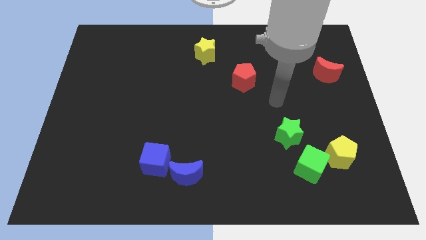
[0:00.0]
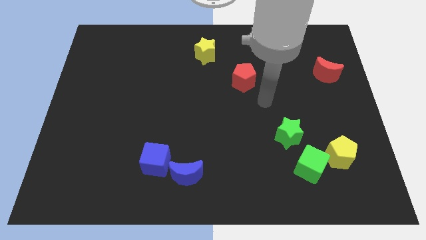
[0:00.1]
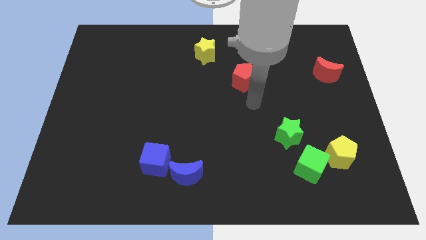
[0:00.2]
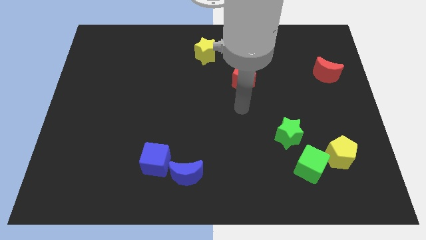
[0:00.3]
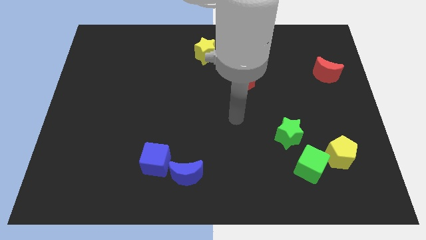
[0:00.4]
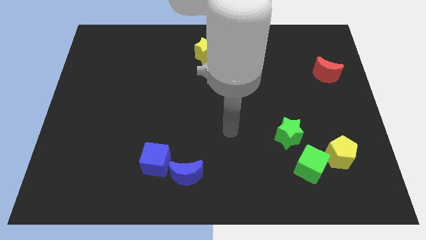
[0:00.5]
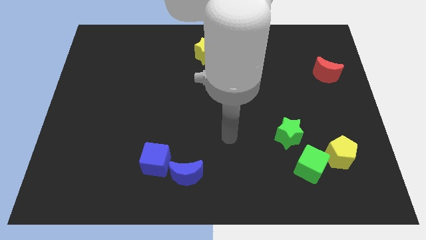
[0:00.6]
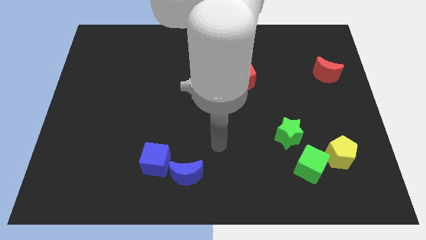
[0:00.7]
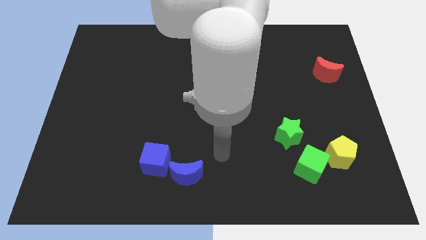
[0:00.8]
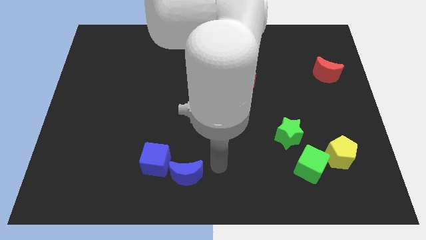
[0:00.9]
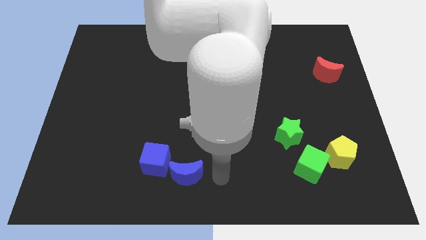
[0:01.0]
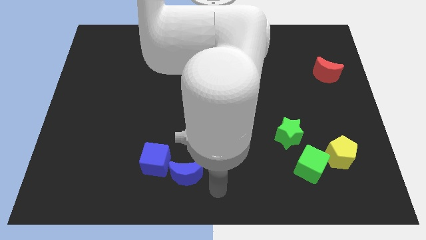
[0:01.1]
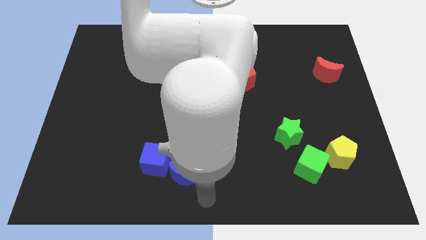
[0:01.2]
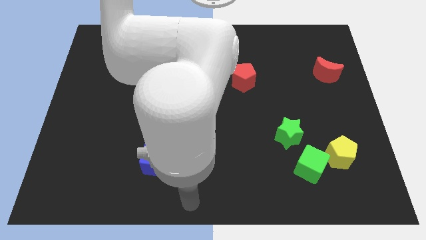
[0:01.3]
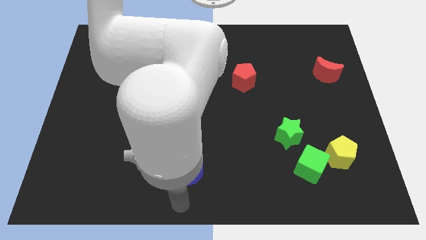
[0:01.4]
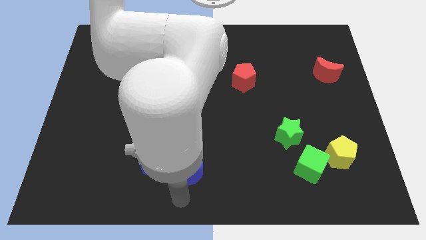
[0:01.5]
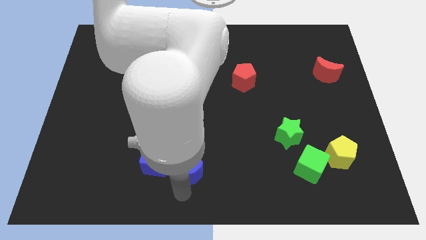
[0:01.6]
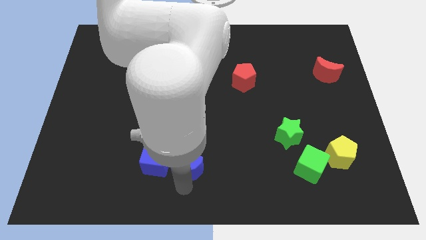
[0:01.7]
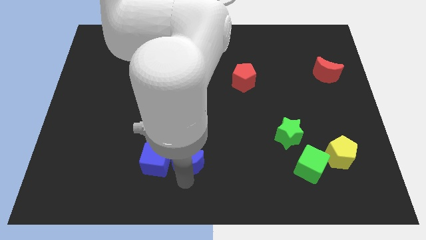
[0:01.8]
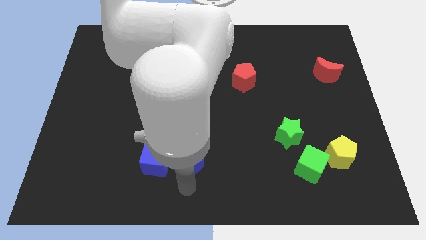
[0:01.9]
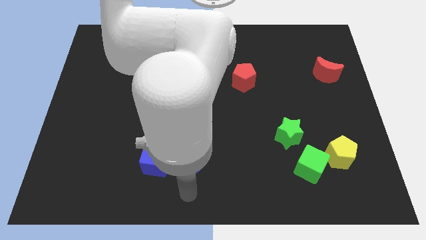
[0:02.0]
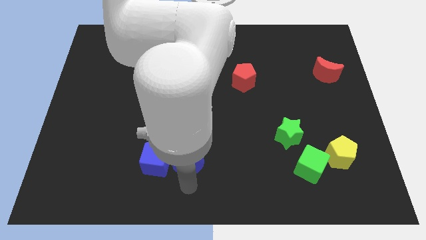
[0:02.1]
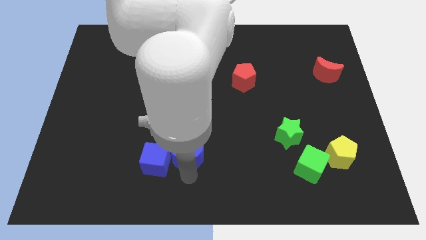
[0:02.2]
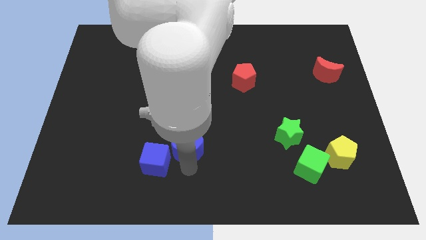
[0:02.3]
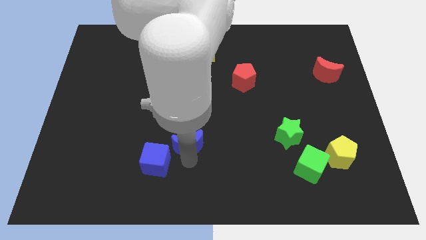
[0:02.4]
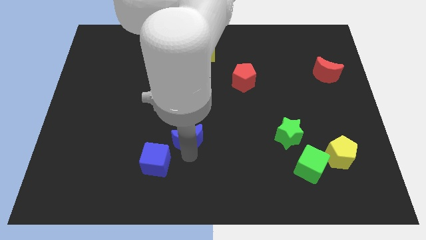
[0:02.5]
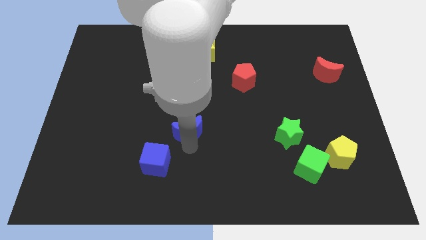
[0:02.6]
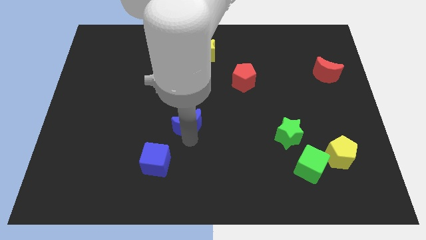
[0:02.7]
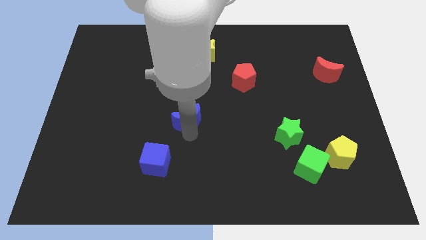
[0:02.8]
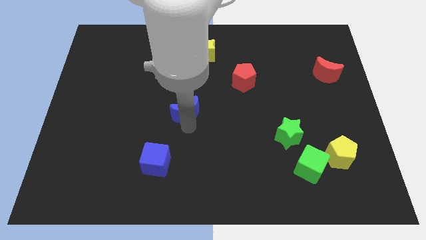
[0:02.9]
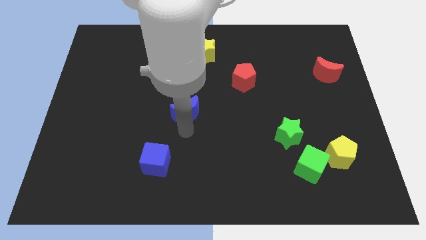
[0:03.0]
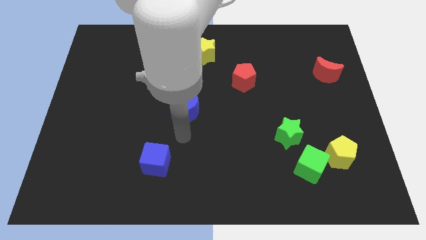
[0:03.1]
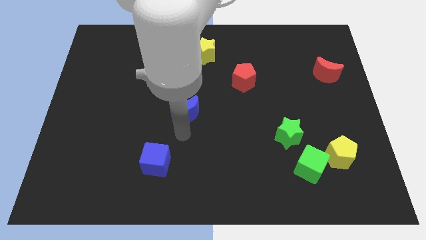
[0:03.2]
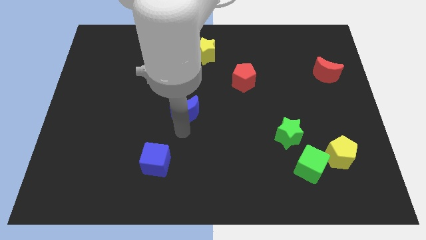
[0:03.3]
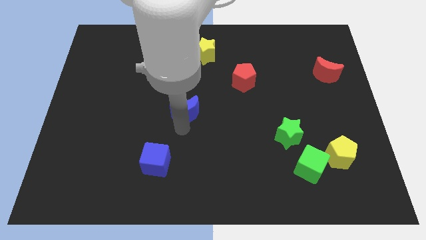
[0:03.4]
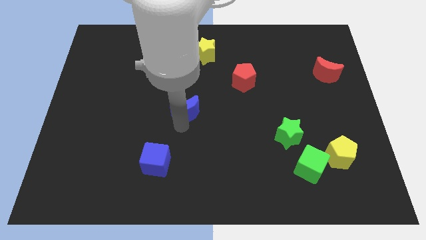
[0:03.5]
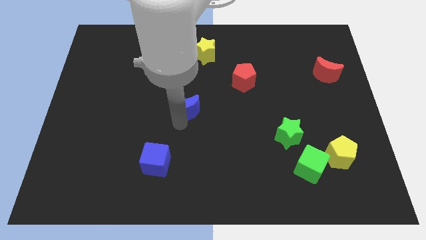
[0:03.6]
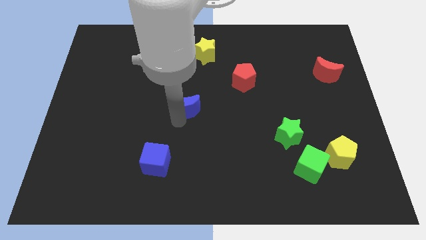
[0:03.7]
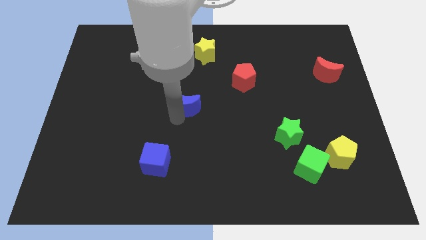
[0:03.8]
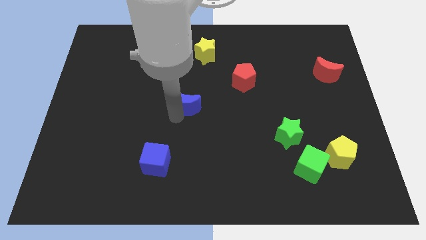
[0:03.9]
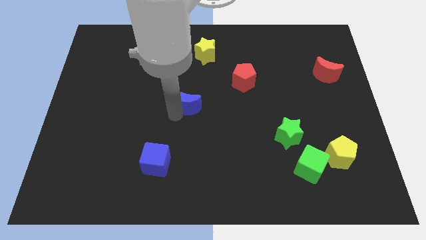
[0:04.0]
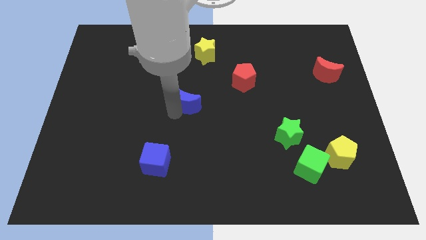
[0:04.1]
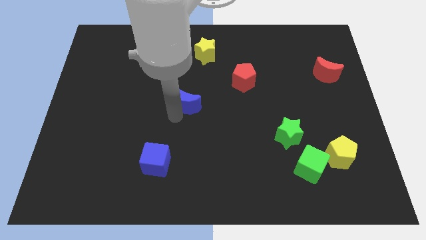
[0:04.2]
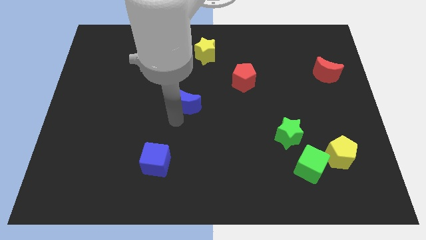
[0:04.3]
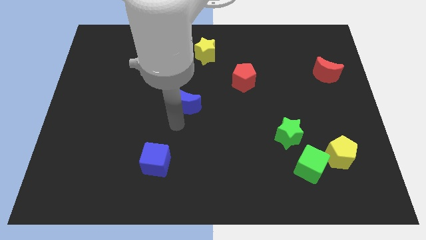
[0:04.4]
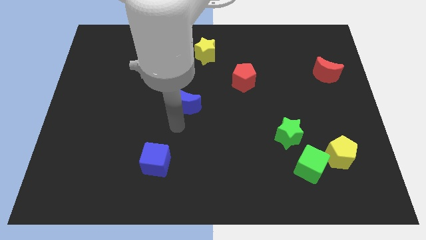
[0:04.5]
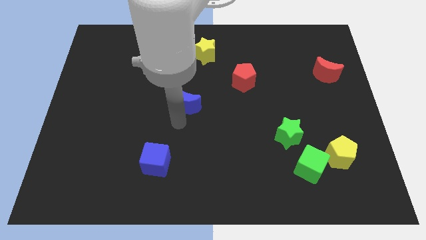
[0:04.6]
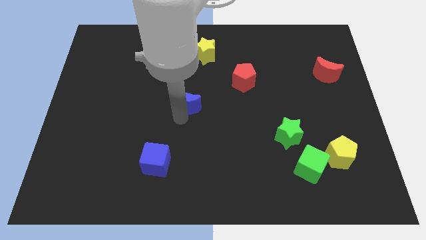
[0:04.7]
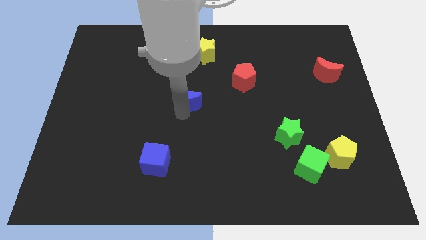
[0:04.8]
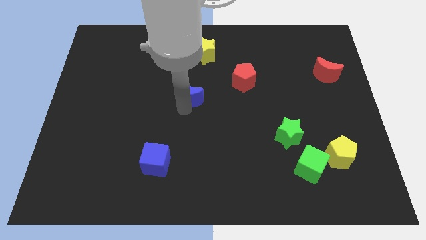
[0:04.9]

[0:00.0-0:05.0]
slide the blue moon up

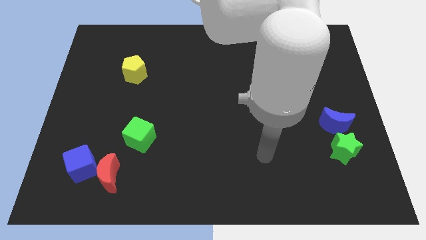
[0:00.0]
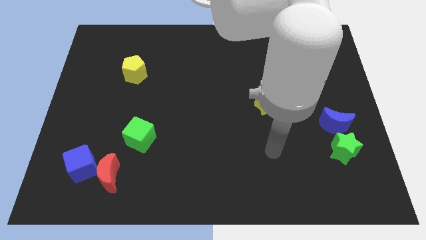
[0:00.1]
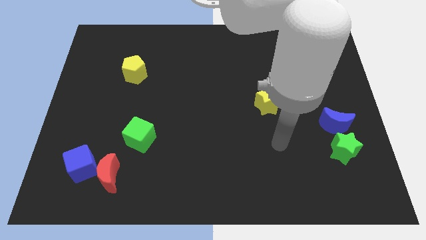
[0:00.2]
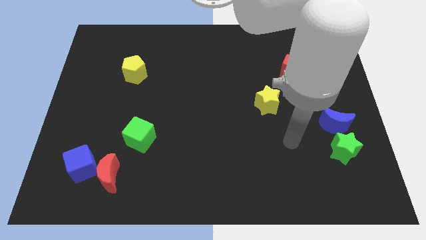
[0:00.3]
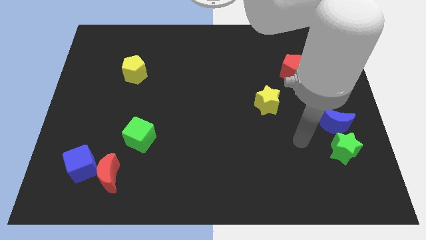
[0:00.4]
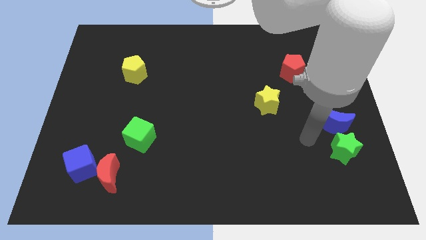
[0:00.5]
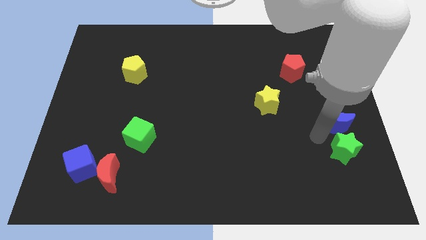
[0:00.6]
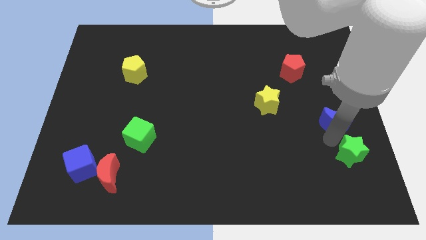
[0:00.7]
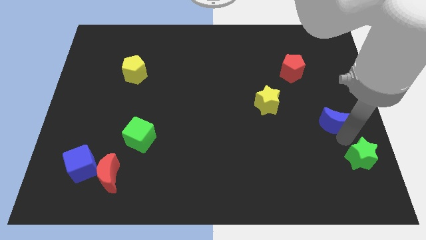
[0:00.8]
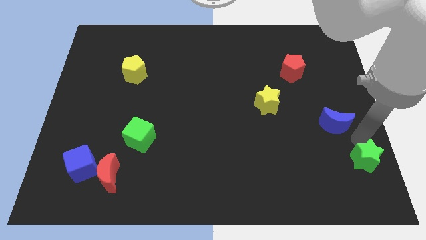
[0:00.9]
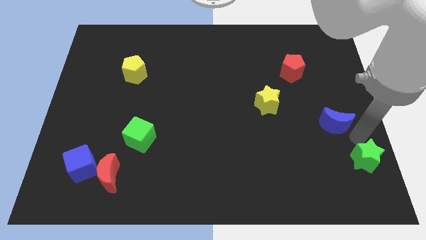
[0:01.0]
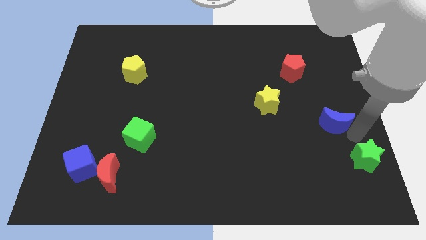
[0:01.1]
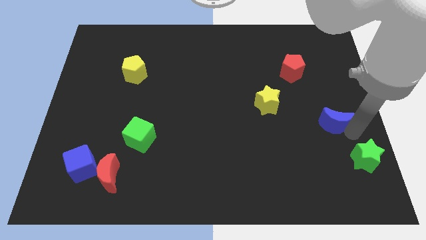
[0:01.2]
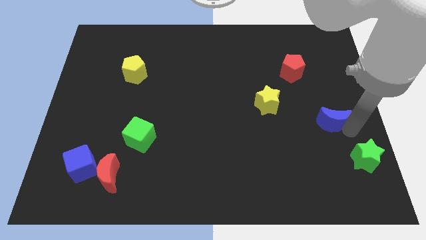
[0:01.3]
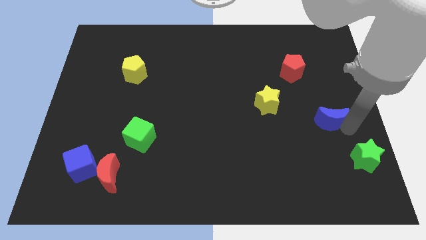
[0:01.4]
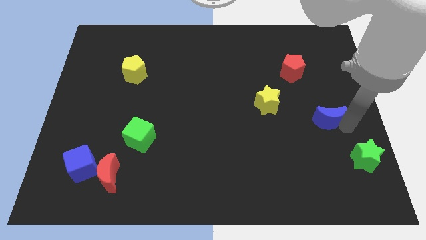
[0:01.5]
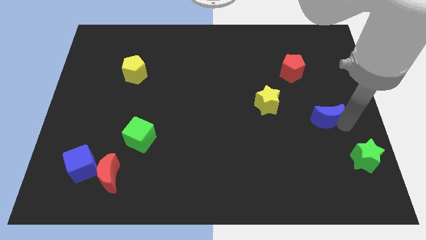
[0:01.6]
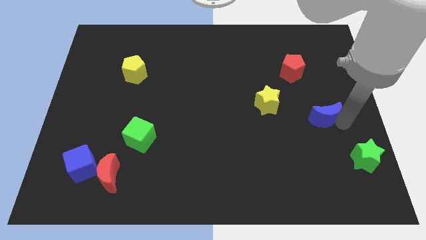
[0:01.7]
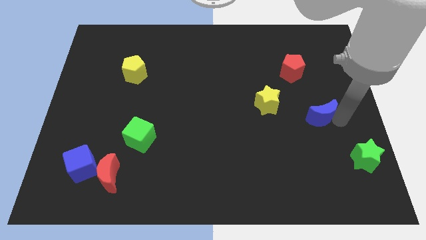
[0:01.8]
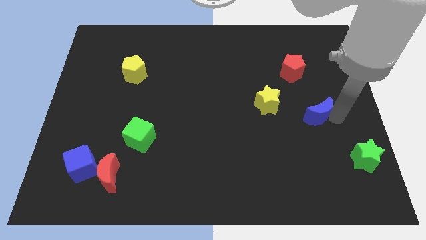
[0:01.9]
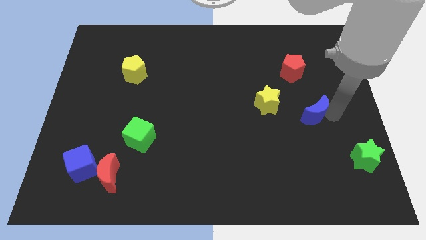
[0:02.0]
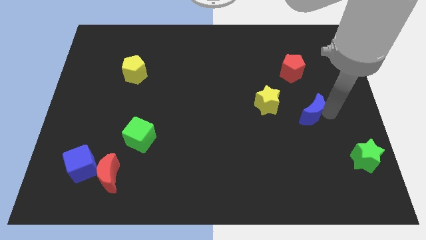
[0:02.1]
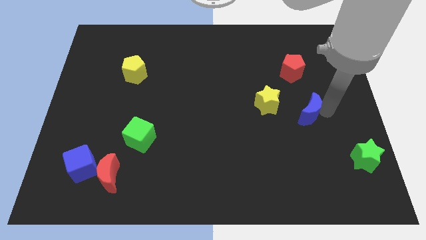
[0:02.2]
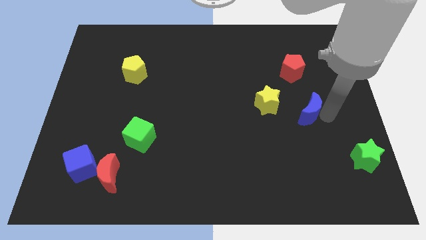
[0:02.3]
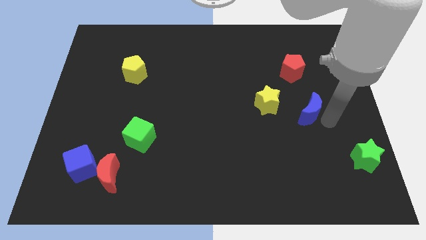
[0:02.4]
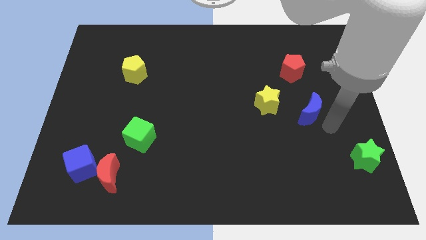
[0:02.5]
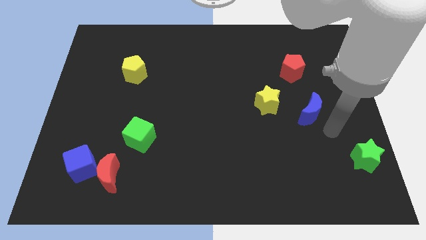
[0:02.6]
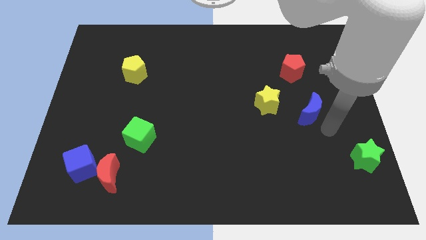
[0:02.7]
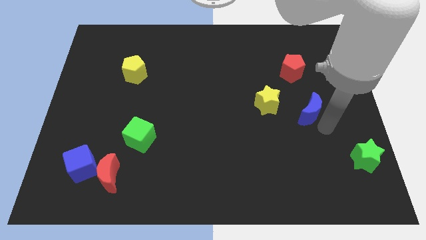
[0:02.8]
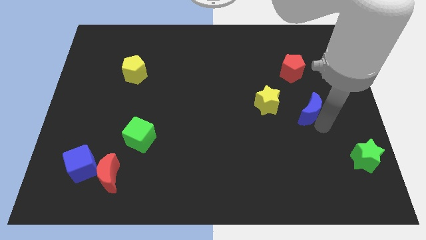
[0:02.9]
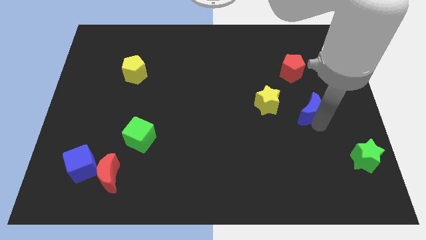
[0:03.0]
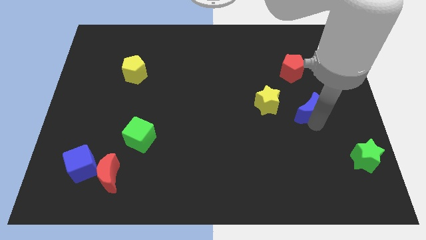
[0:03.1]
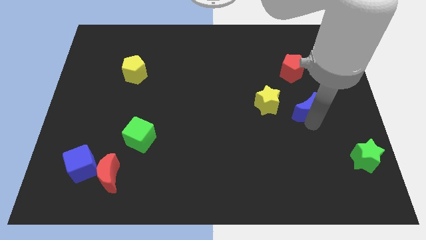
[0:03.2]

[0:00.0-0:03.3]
slide the blue moon somewhat diagonally upwards and left
